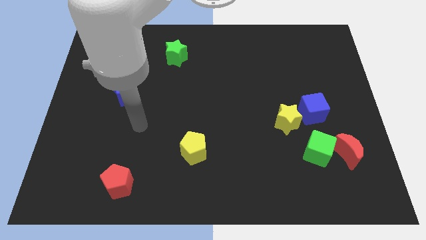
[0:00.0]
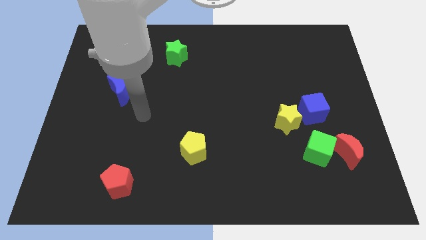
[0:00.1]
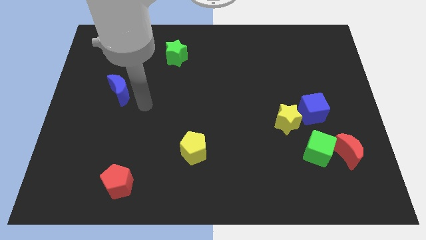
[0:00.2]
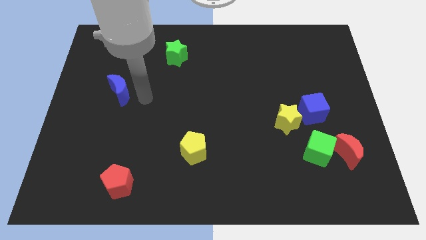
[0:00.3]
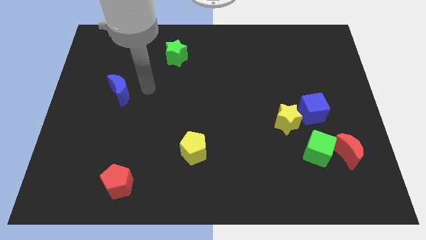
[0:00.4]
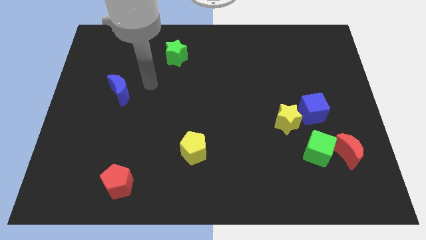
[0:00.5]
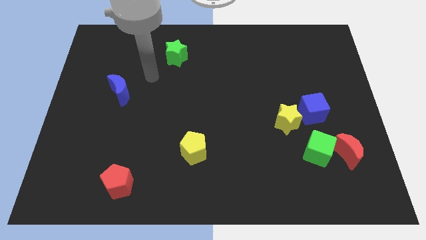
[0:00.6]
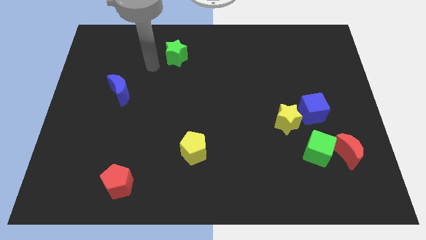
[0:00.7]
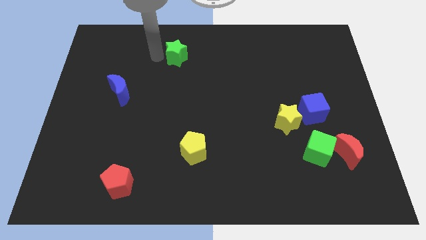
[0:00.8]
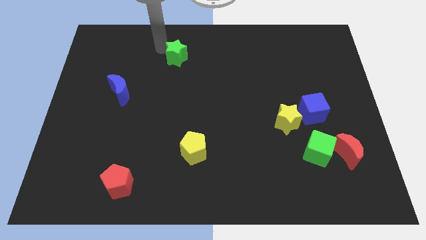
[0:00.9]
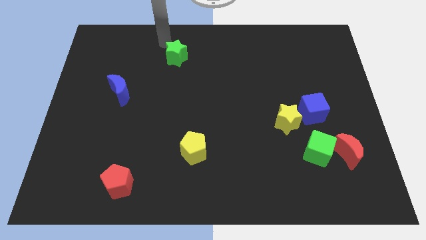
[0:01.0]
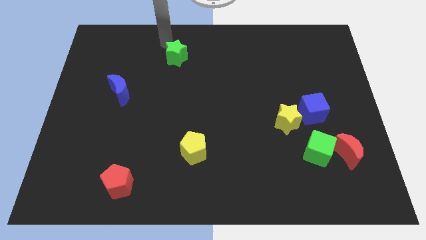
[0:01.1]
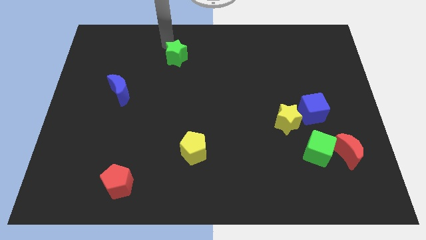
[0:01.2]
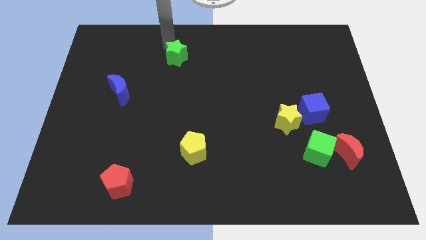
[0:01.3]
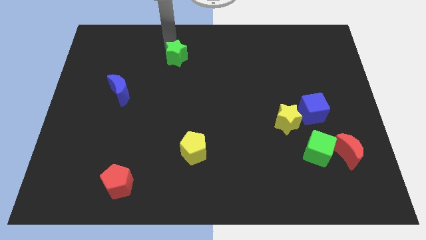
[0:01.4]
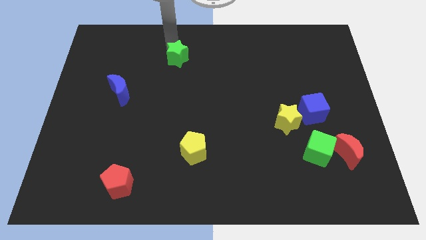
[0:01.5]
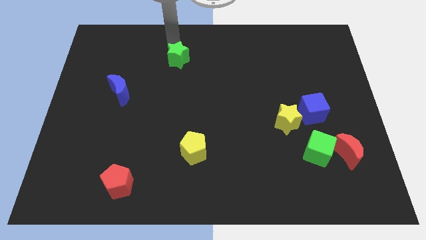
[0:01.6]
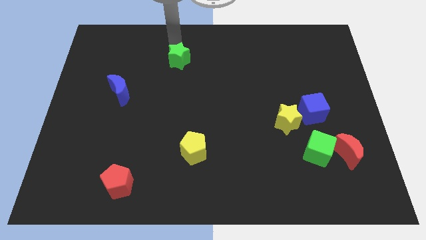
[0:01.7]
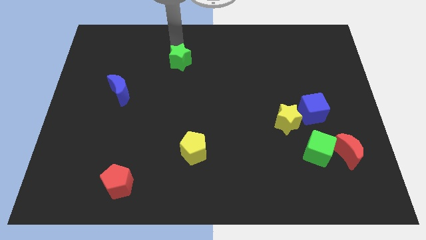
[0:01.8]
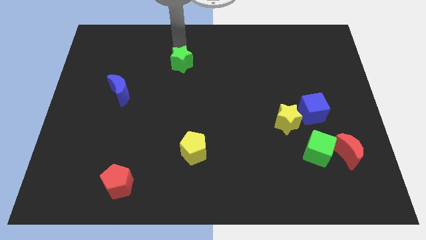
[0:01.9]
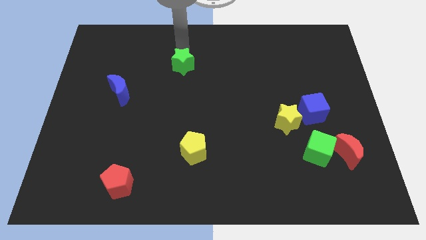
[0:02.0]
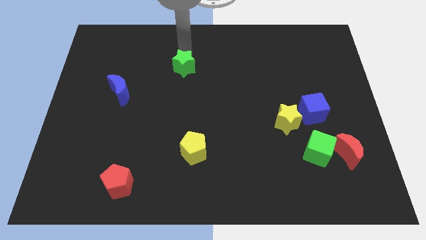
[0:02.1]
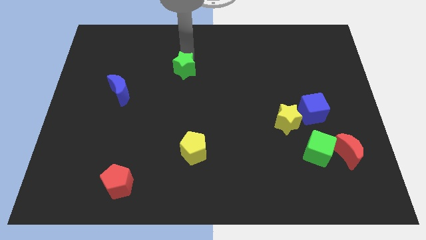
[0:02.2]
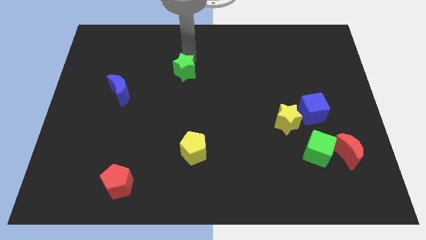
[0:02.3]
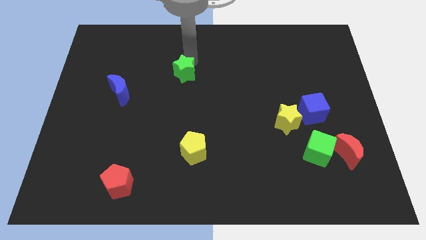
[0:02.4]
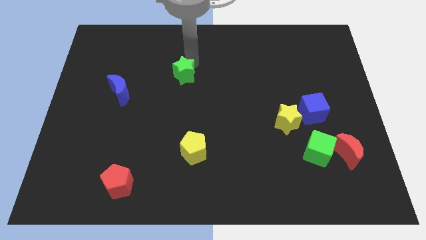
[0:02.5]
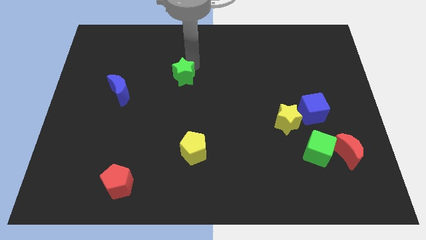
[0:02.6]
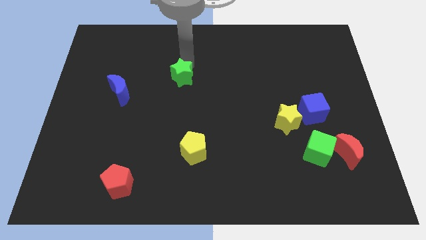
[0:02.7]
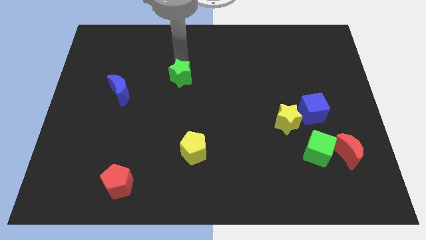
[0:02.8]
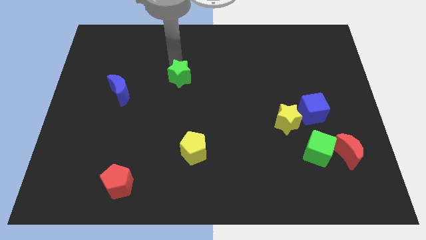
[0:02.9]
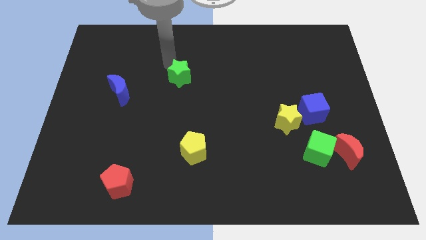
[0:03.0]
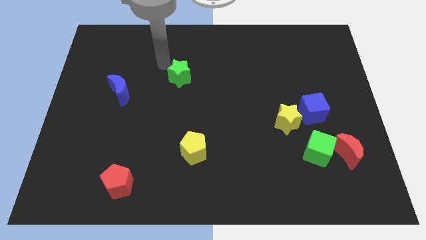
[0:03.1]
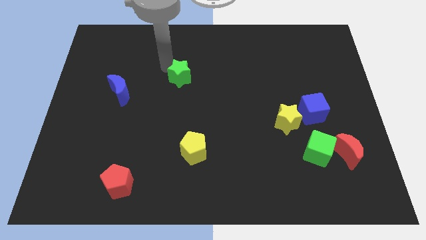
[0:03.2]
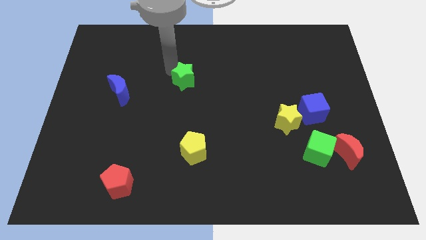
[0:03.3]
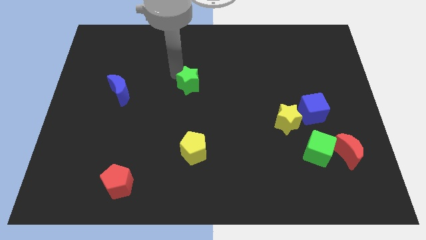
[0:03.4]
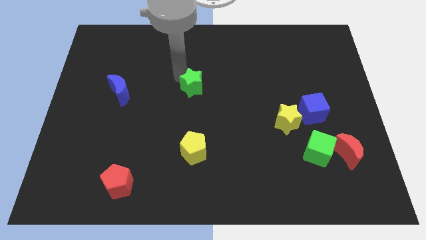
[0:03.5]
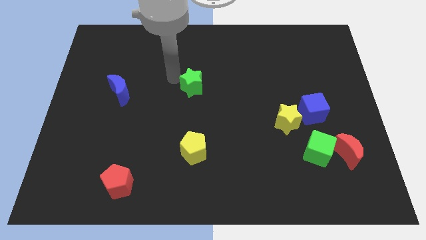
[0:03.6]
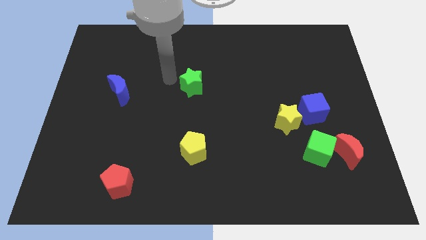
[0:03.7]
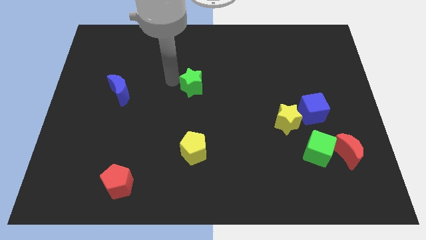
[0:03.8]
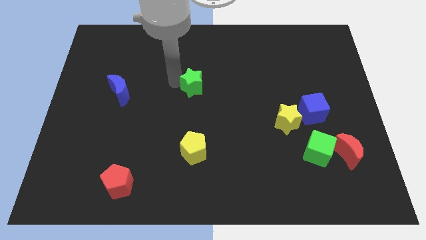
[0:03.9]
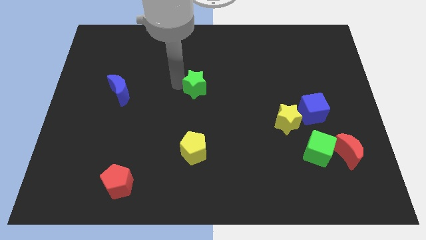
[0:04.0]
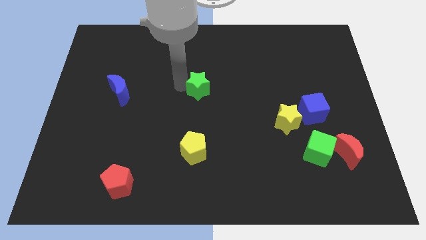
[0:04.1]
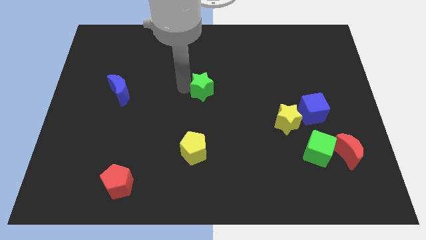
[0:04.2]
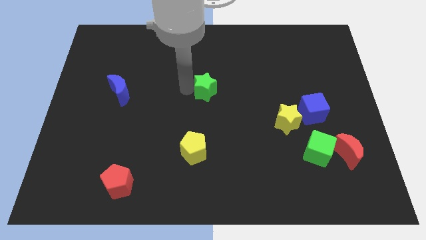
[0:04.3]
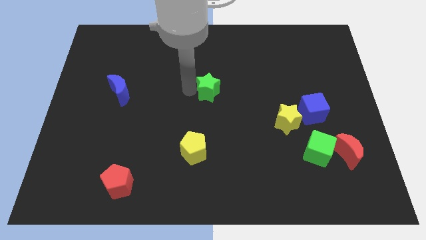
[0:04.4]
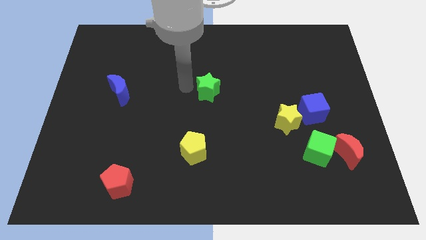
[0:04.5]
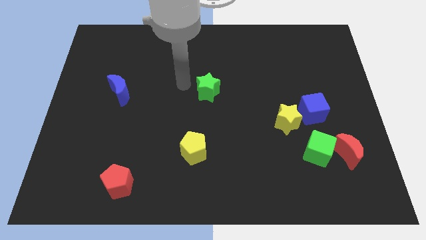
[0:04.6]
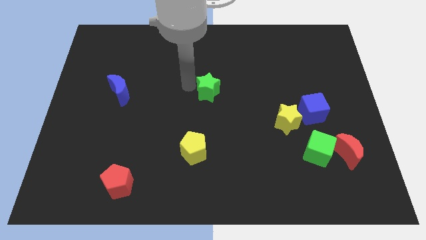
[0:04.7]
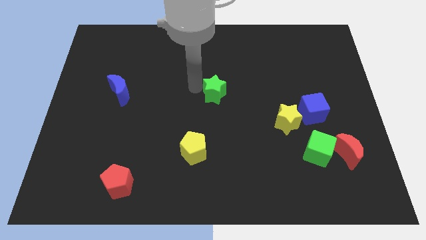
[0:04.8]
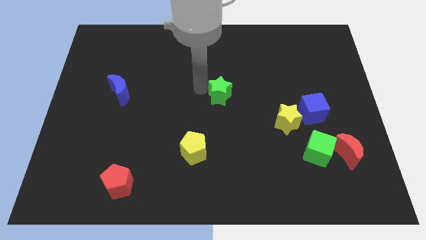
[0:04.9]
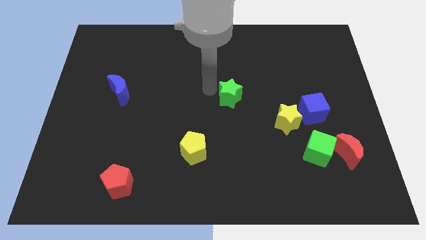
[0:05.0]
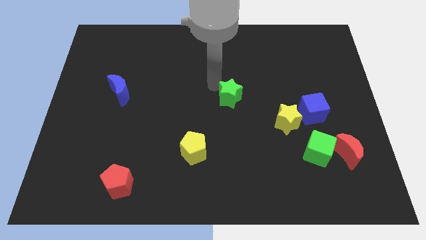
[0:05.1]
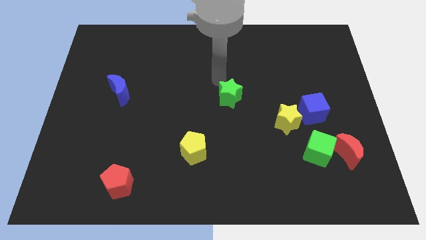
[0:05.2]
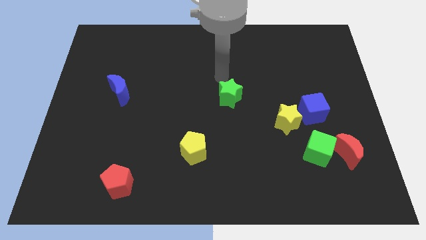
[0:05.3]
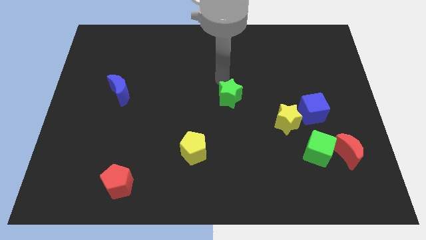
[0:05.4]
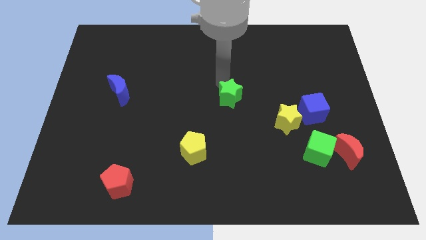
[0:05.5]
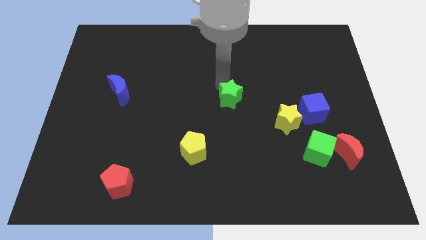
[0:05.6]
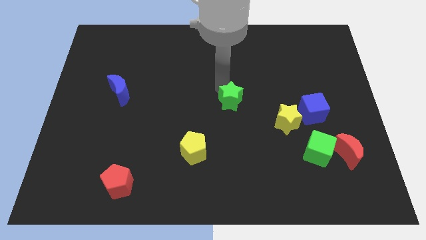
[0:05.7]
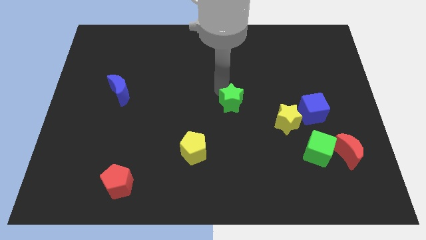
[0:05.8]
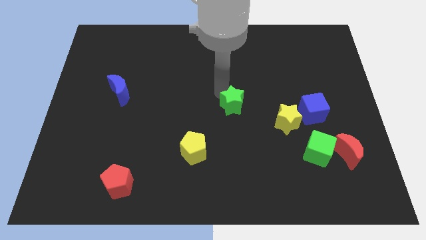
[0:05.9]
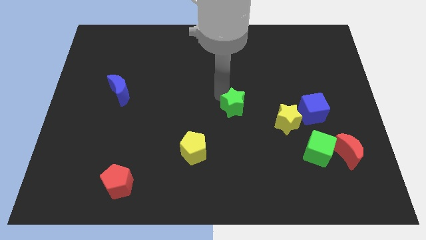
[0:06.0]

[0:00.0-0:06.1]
move the green star left of the yellow star
